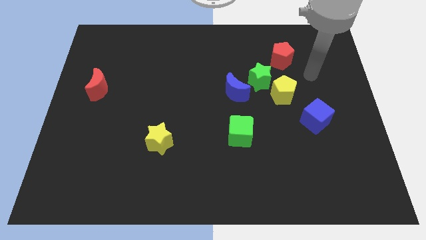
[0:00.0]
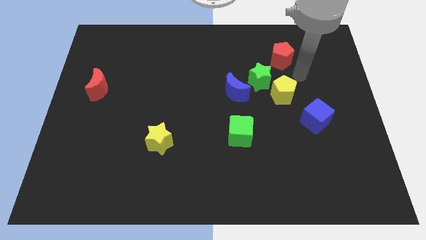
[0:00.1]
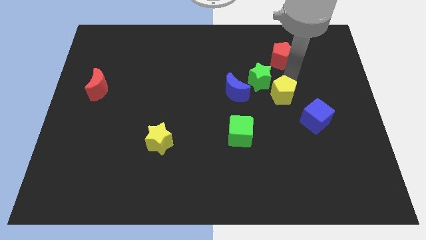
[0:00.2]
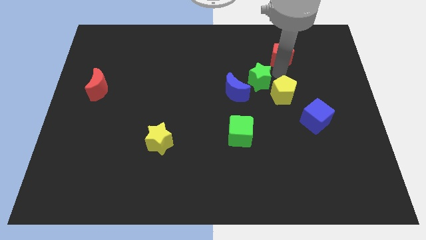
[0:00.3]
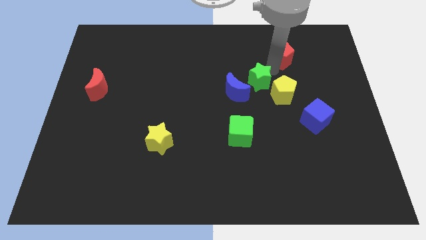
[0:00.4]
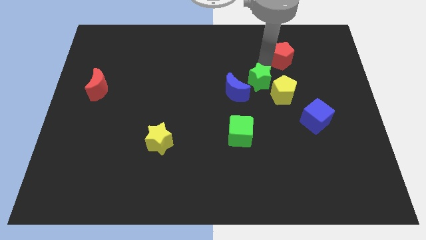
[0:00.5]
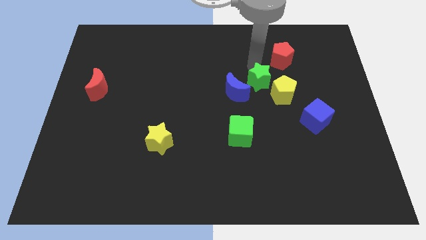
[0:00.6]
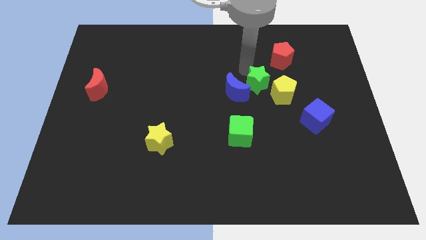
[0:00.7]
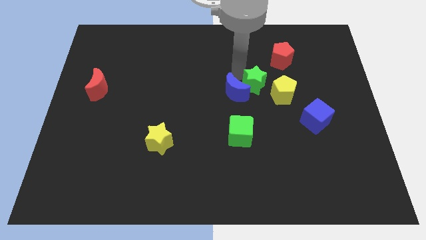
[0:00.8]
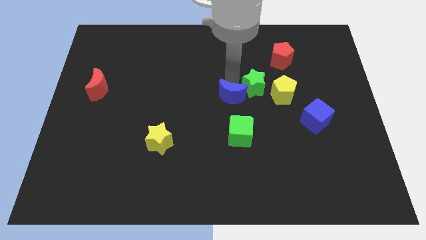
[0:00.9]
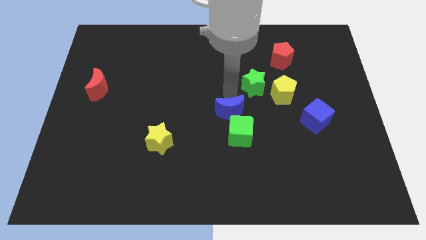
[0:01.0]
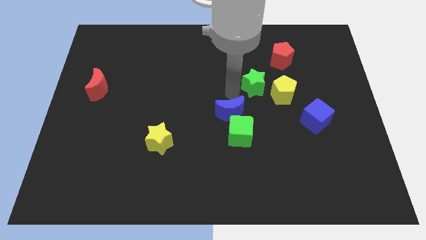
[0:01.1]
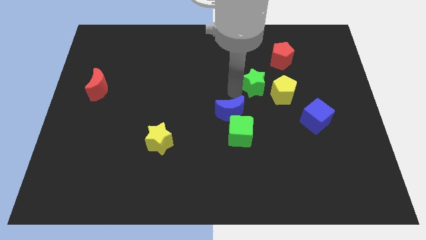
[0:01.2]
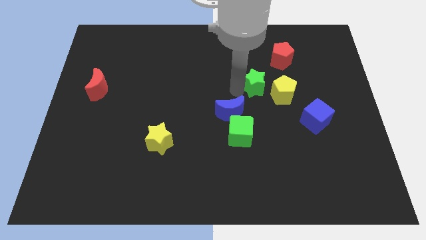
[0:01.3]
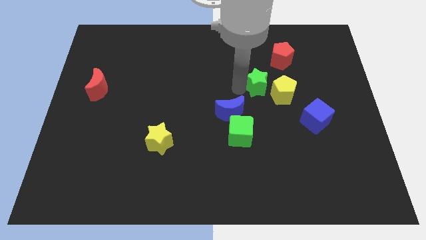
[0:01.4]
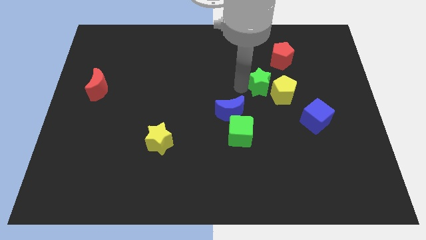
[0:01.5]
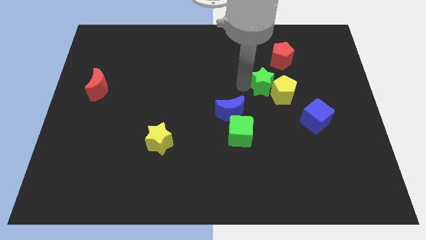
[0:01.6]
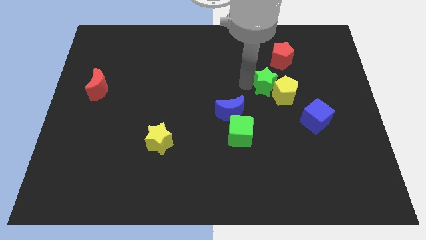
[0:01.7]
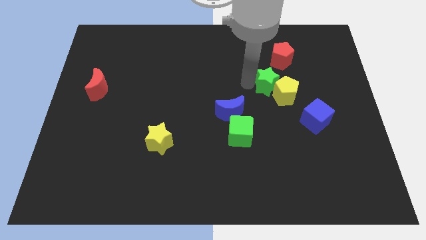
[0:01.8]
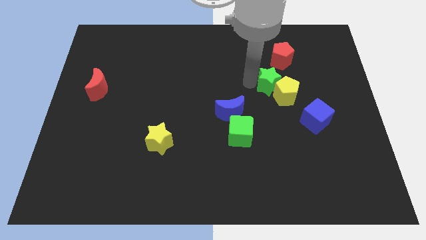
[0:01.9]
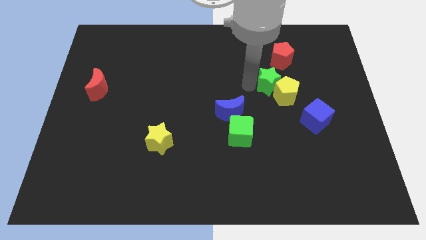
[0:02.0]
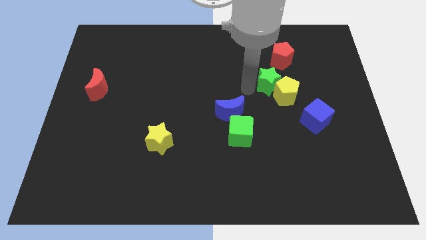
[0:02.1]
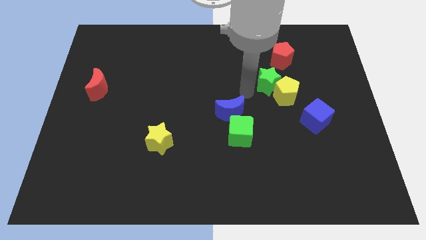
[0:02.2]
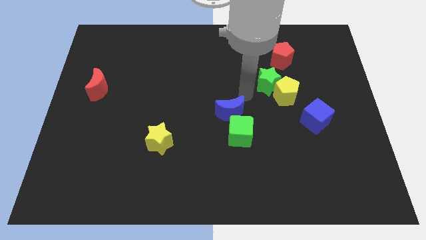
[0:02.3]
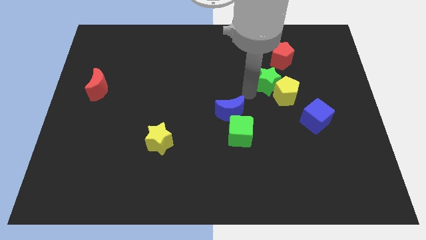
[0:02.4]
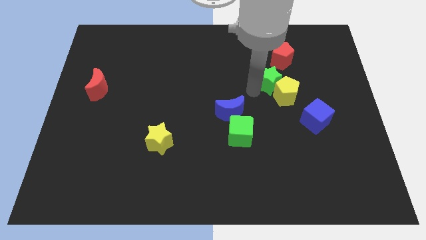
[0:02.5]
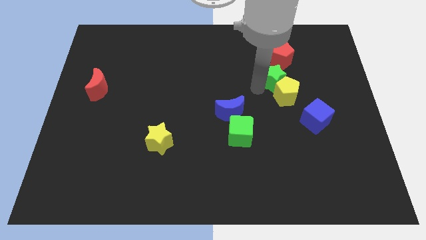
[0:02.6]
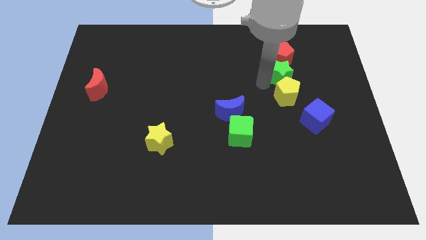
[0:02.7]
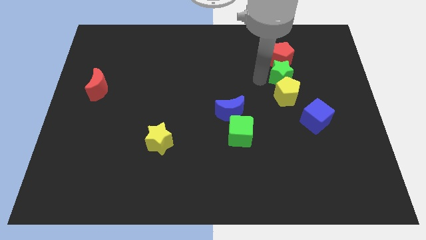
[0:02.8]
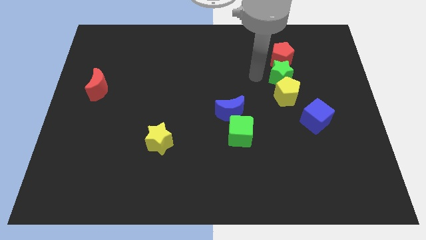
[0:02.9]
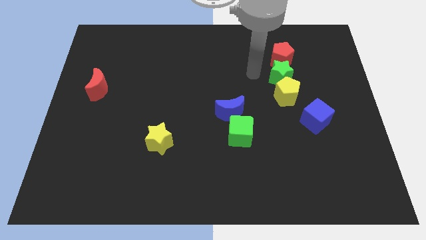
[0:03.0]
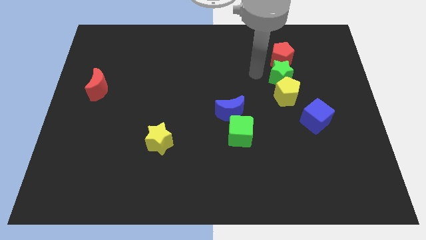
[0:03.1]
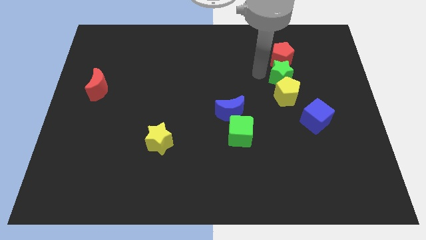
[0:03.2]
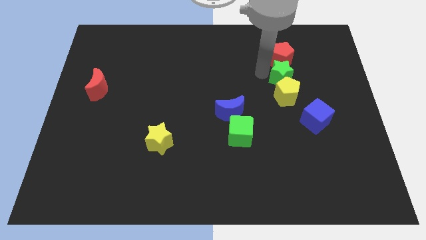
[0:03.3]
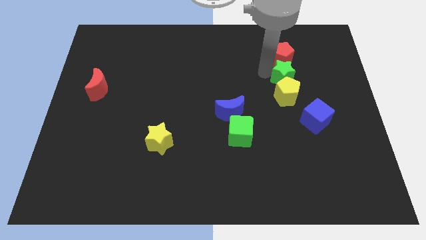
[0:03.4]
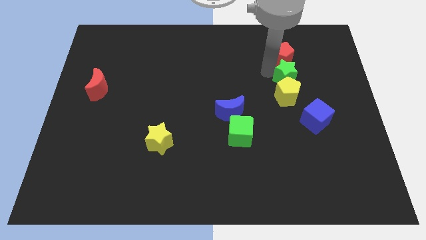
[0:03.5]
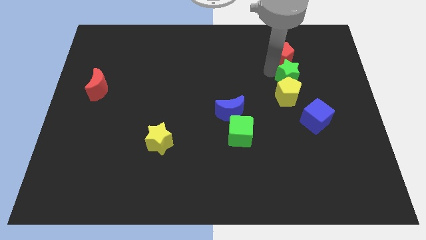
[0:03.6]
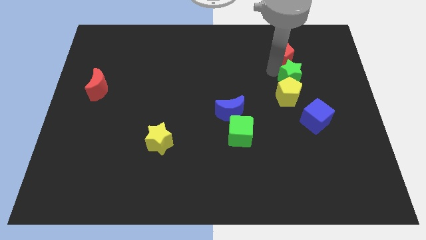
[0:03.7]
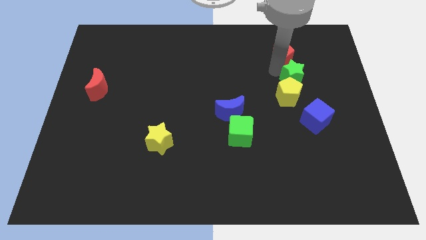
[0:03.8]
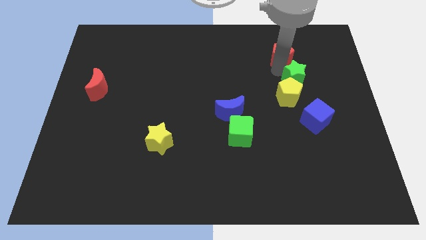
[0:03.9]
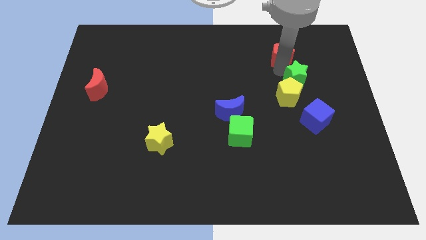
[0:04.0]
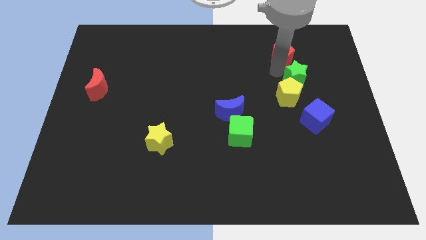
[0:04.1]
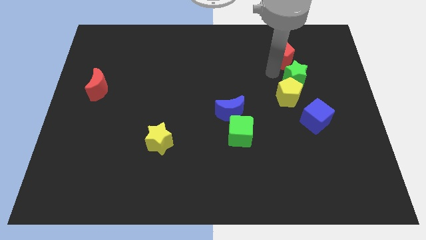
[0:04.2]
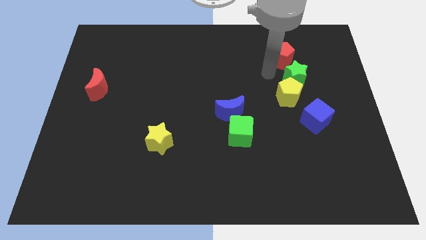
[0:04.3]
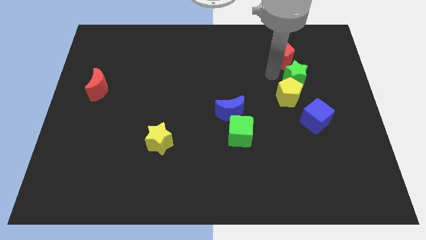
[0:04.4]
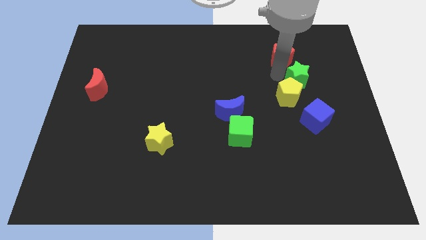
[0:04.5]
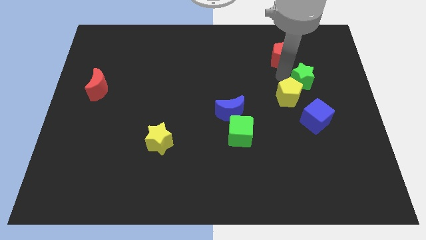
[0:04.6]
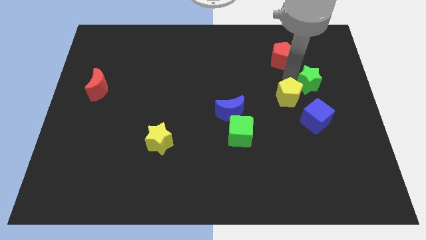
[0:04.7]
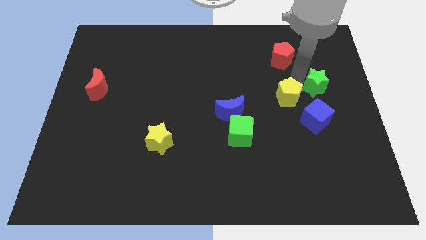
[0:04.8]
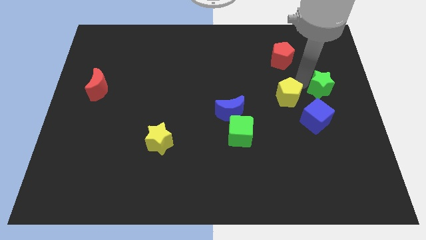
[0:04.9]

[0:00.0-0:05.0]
put the green star to the center right

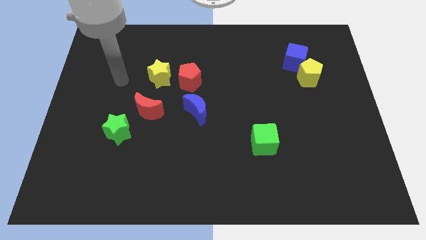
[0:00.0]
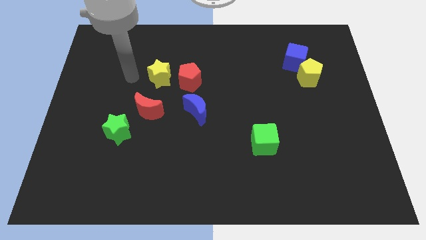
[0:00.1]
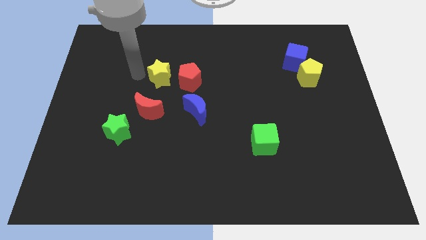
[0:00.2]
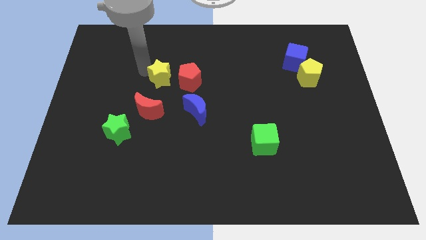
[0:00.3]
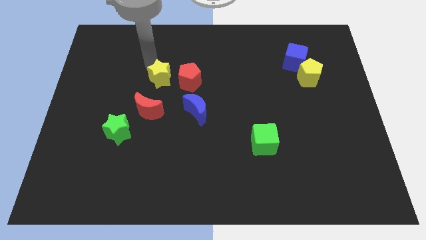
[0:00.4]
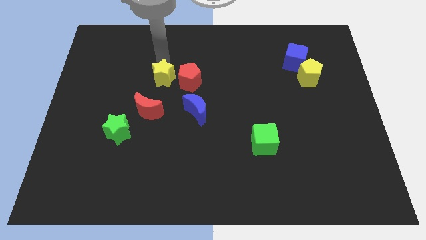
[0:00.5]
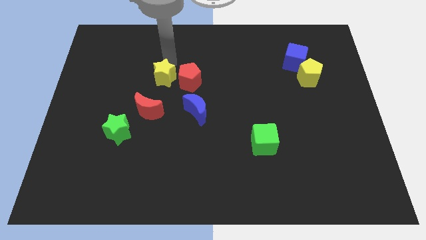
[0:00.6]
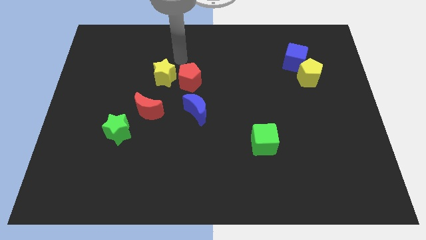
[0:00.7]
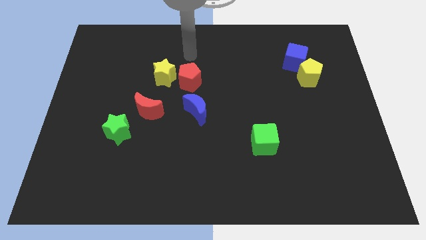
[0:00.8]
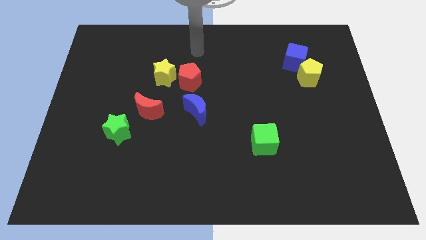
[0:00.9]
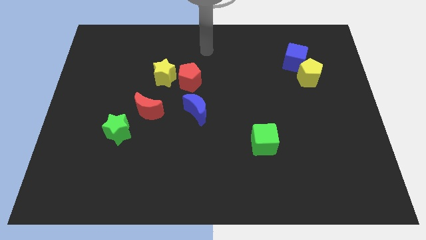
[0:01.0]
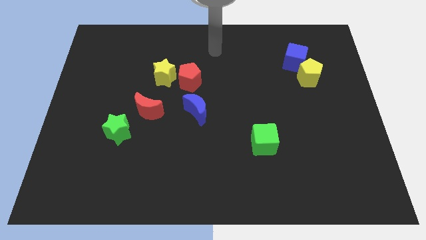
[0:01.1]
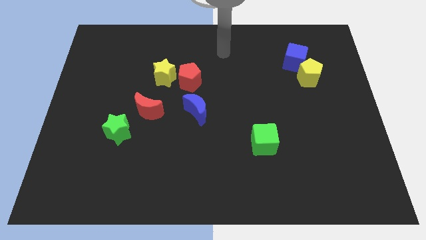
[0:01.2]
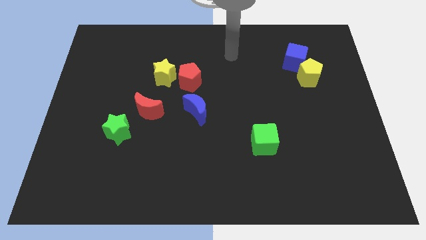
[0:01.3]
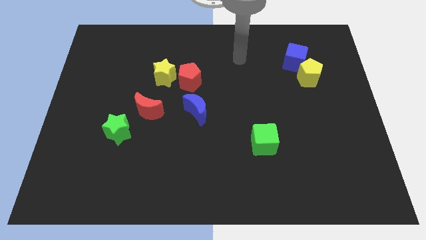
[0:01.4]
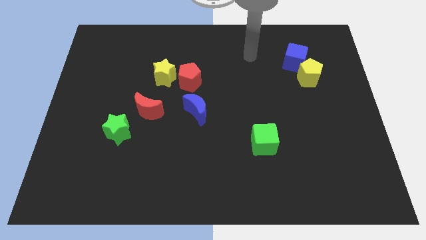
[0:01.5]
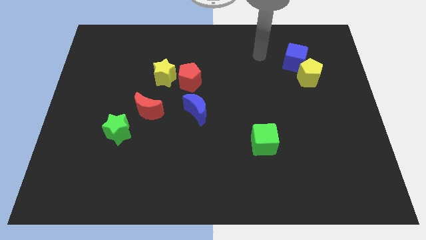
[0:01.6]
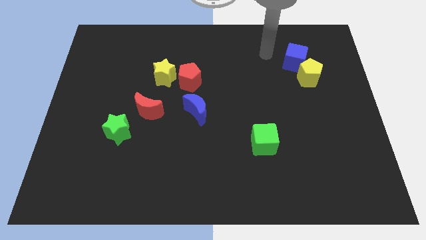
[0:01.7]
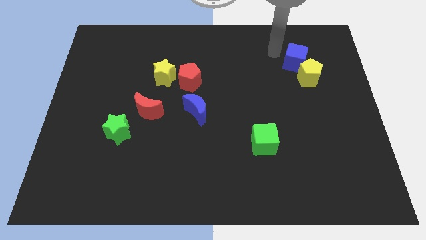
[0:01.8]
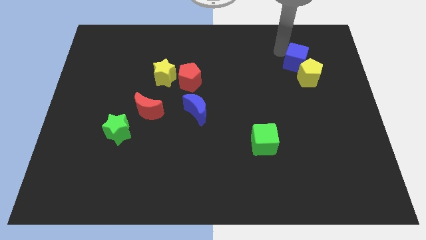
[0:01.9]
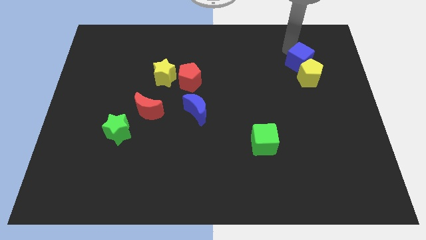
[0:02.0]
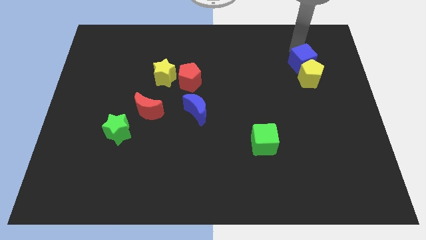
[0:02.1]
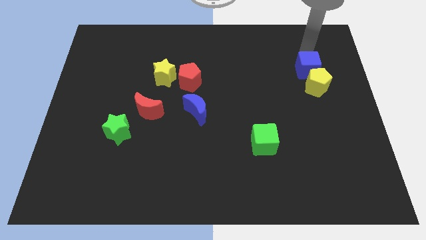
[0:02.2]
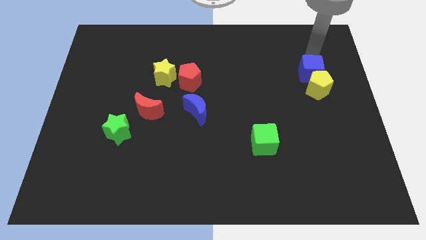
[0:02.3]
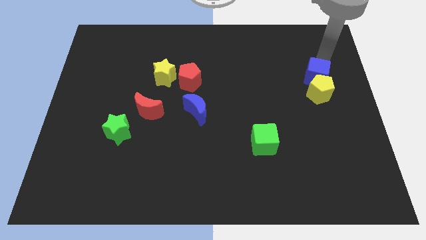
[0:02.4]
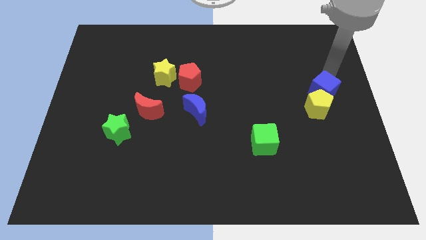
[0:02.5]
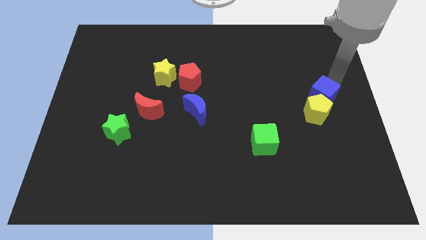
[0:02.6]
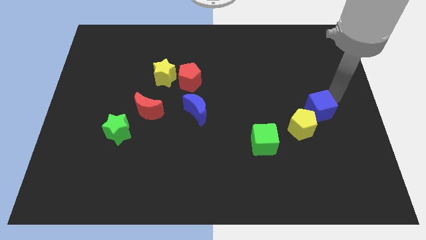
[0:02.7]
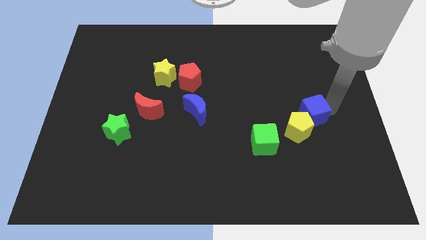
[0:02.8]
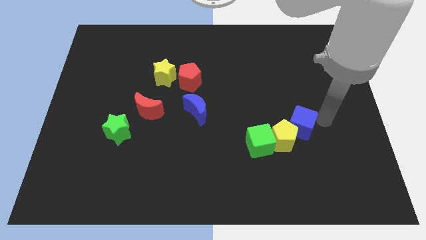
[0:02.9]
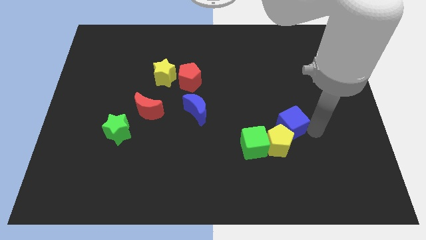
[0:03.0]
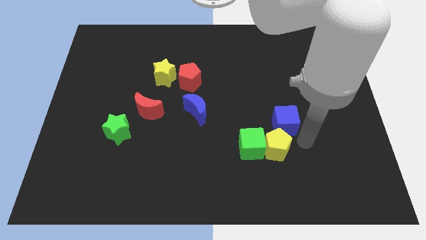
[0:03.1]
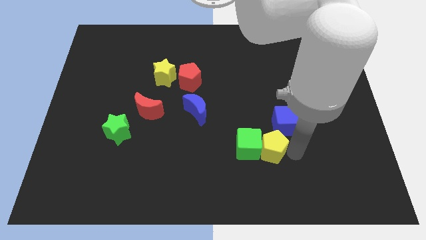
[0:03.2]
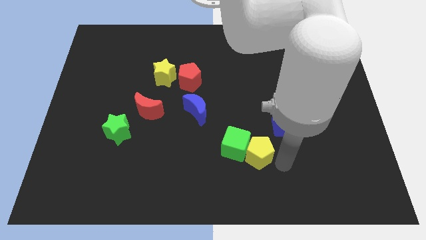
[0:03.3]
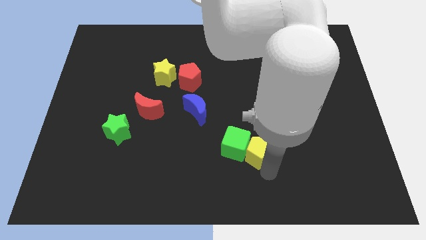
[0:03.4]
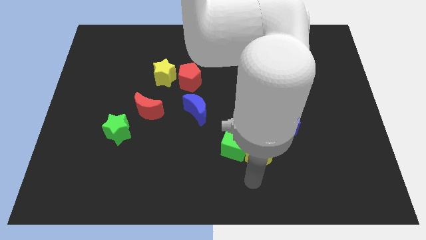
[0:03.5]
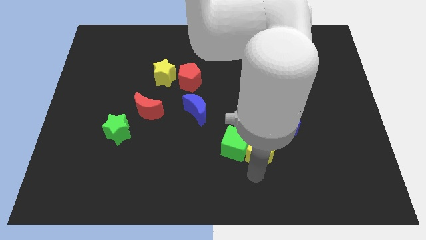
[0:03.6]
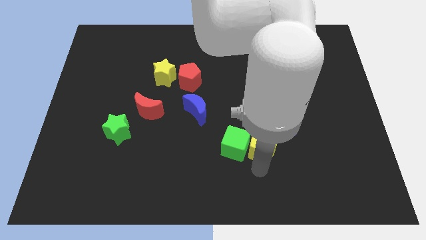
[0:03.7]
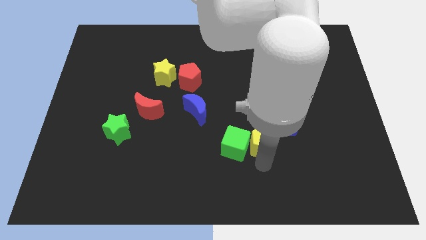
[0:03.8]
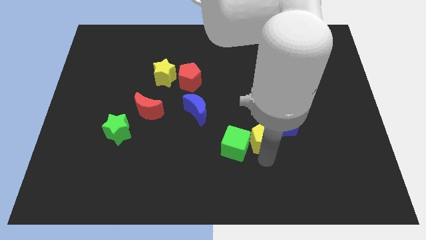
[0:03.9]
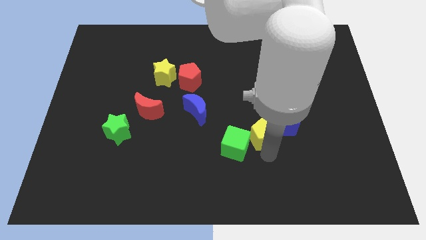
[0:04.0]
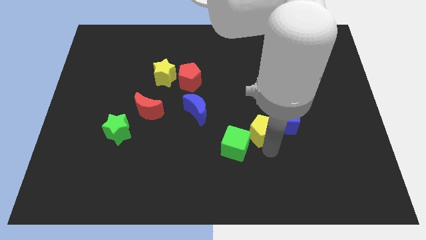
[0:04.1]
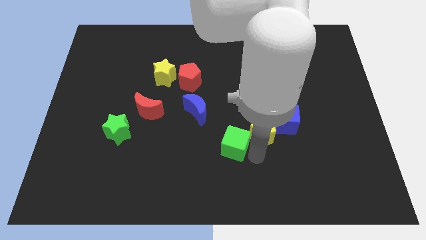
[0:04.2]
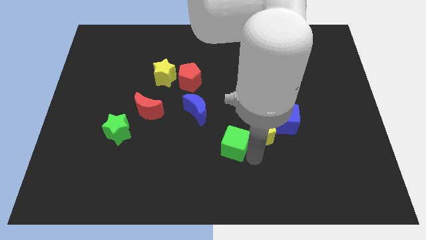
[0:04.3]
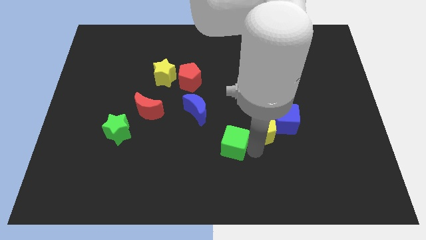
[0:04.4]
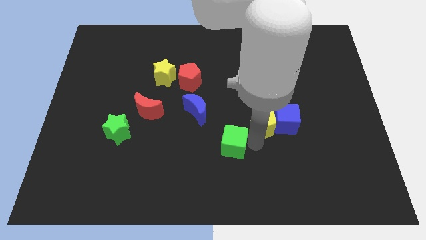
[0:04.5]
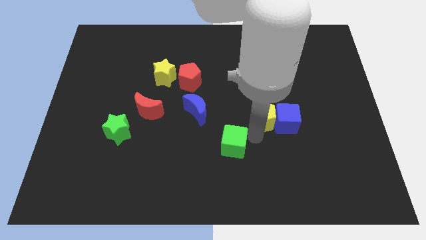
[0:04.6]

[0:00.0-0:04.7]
move the yellow pentagon to the center
